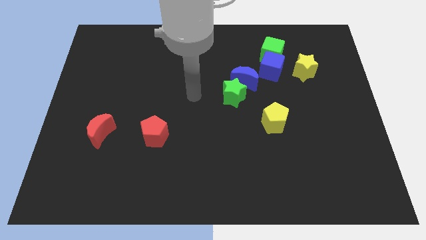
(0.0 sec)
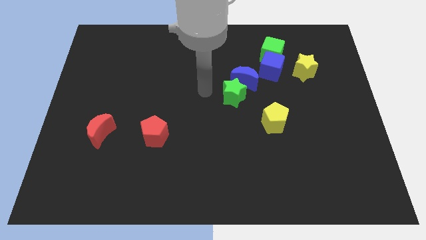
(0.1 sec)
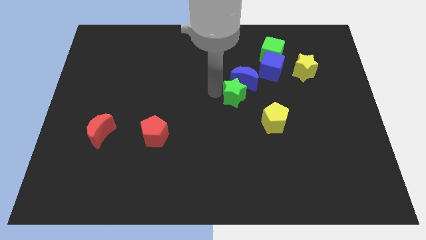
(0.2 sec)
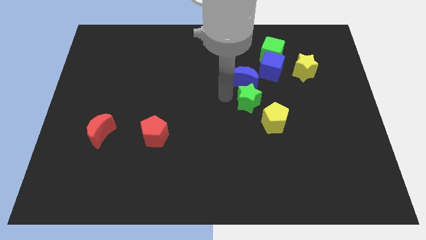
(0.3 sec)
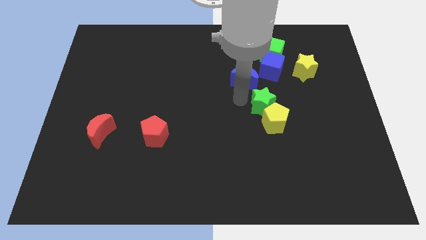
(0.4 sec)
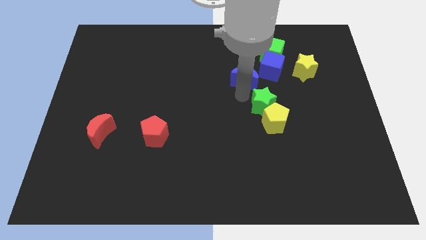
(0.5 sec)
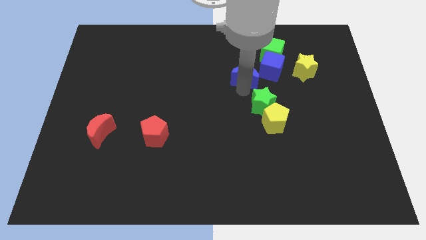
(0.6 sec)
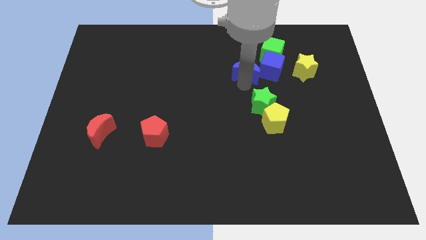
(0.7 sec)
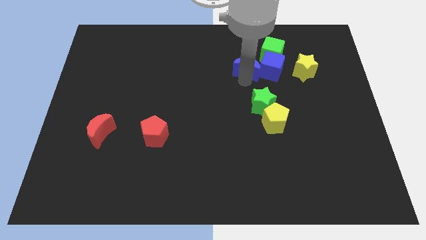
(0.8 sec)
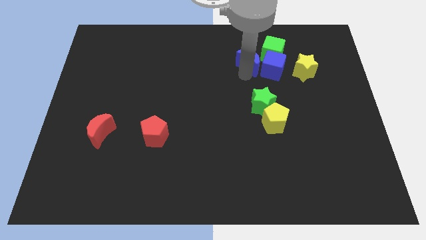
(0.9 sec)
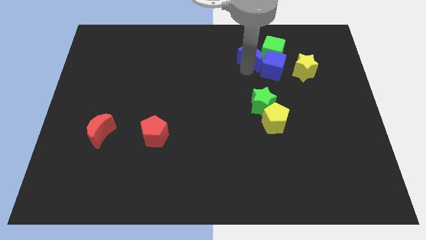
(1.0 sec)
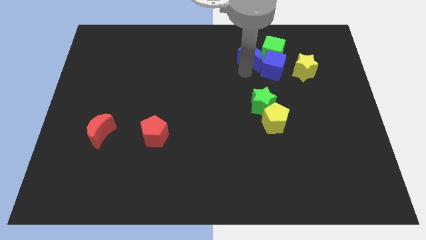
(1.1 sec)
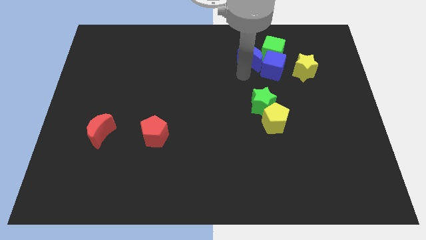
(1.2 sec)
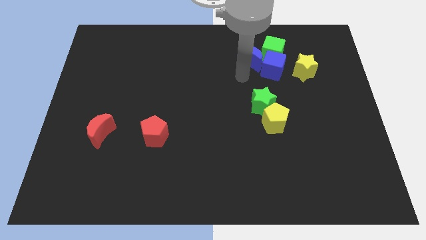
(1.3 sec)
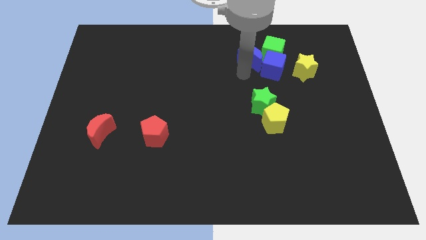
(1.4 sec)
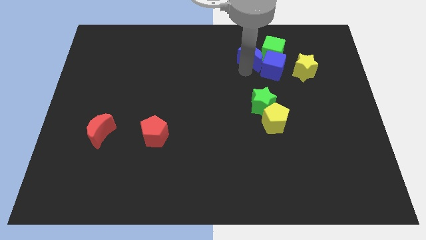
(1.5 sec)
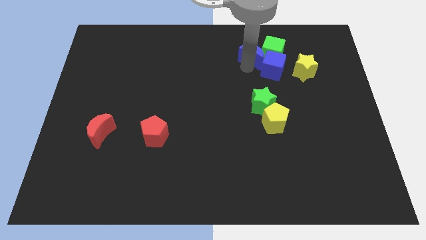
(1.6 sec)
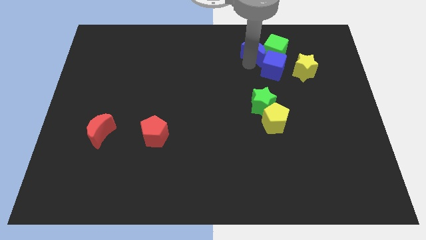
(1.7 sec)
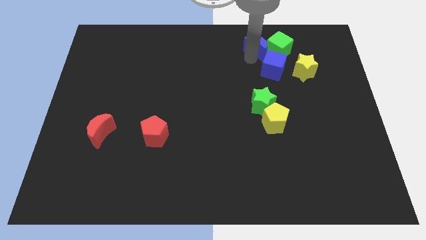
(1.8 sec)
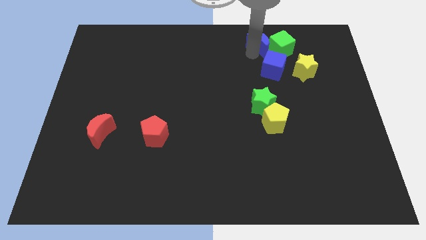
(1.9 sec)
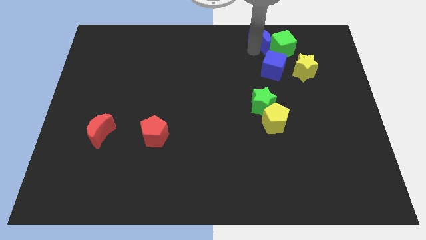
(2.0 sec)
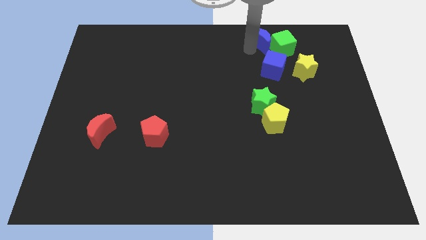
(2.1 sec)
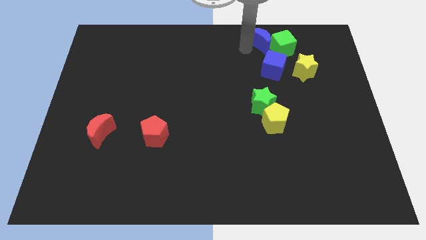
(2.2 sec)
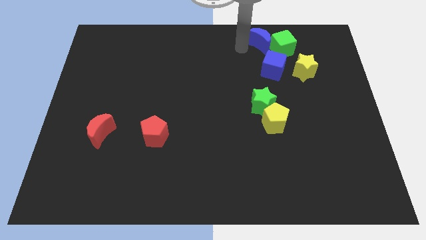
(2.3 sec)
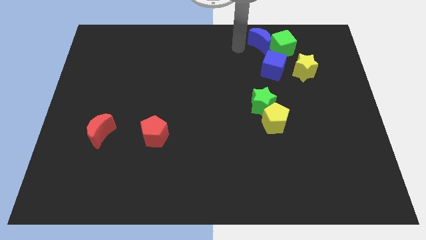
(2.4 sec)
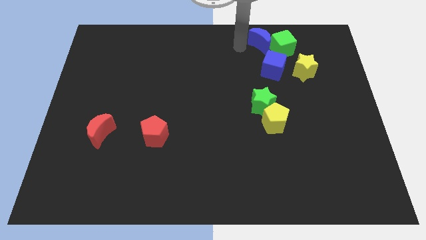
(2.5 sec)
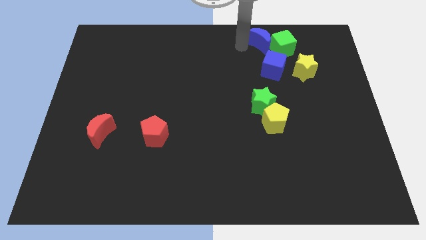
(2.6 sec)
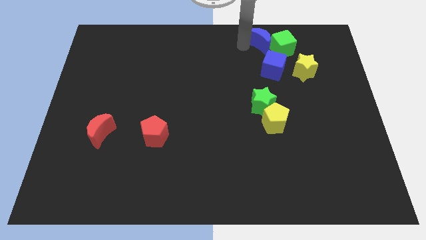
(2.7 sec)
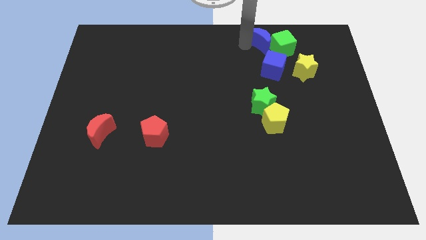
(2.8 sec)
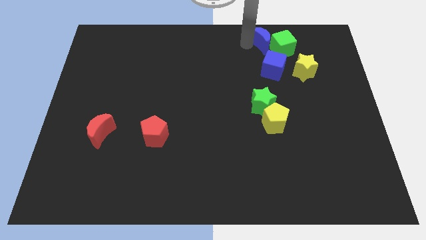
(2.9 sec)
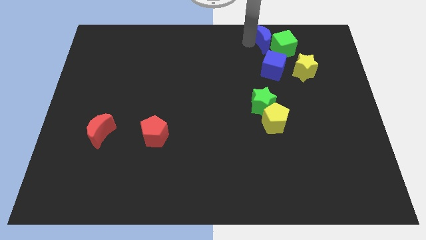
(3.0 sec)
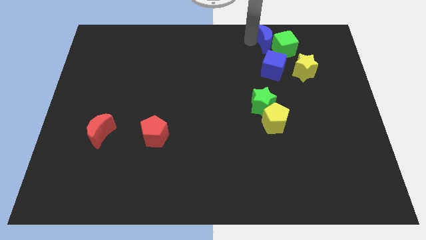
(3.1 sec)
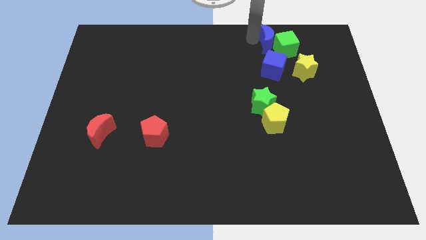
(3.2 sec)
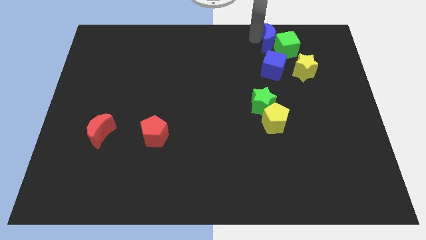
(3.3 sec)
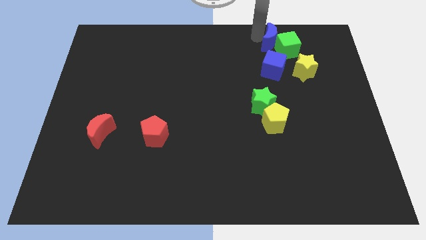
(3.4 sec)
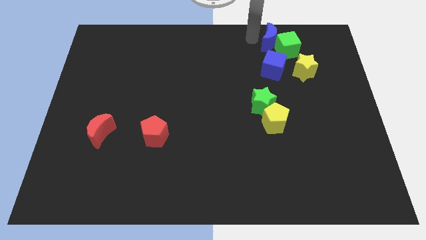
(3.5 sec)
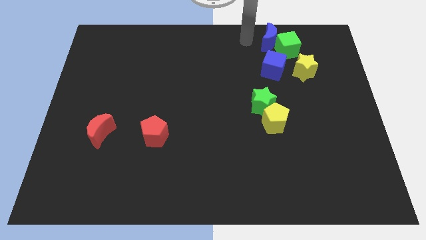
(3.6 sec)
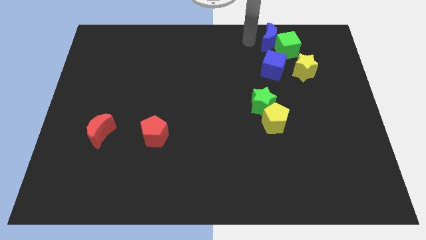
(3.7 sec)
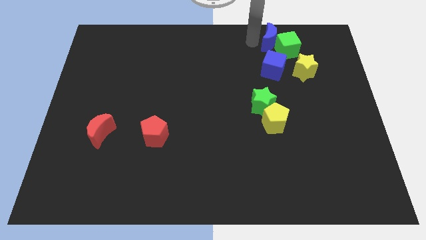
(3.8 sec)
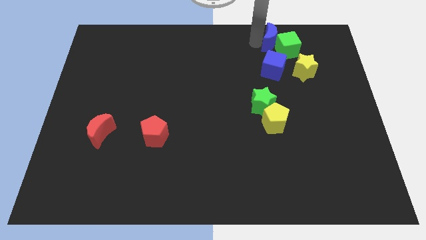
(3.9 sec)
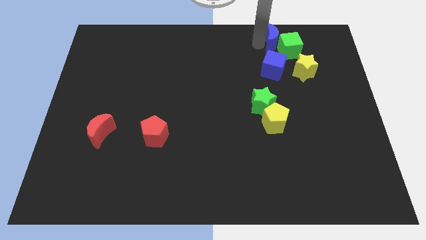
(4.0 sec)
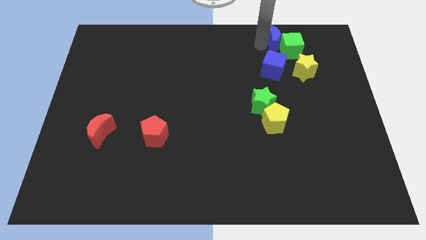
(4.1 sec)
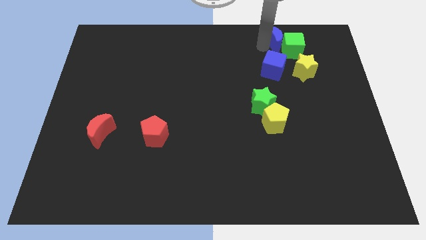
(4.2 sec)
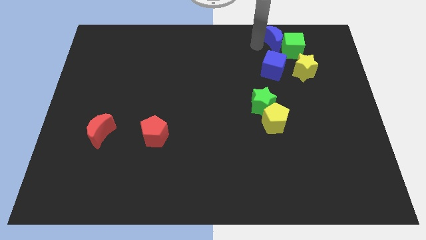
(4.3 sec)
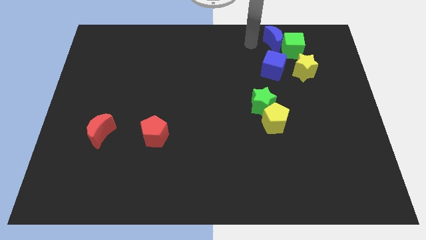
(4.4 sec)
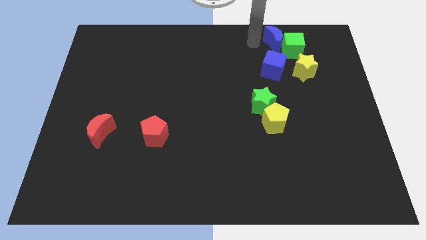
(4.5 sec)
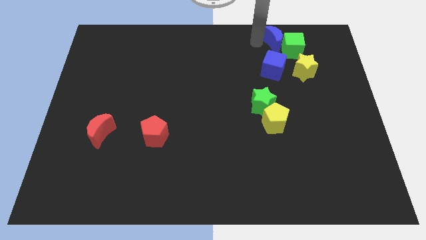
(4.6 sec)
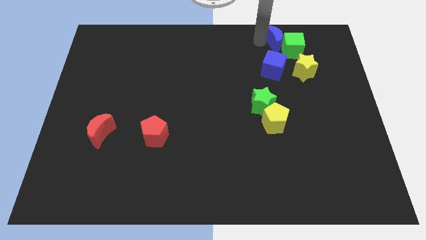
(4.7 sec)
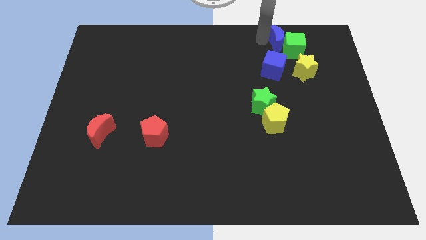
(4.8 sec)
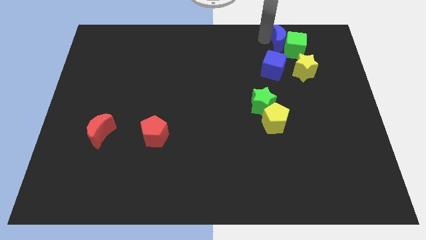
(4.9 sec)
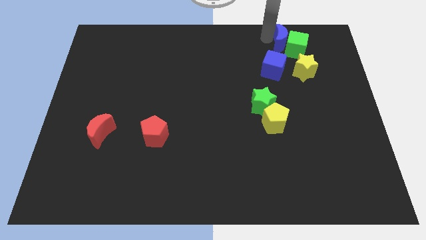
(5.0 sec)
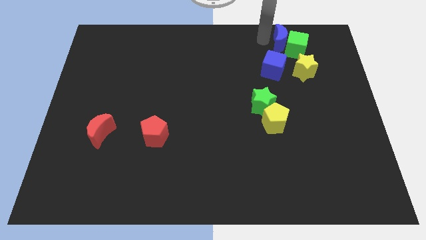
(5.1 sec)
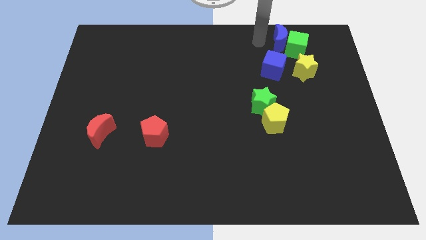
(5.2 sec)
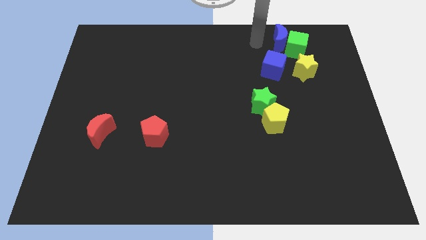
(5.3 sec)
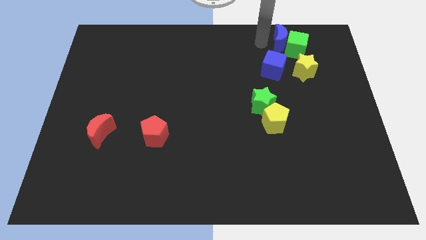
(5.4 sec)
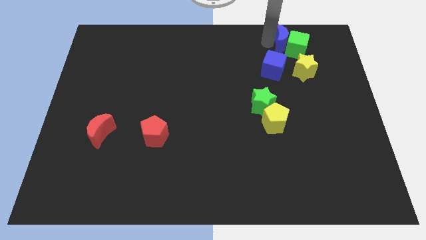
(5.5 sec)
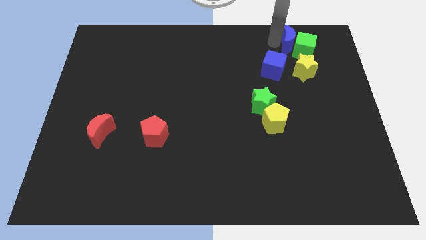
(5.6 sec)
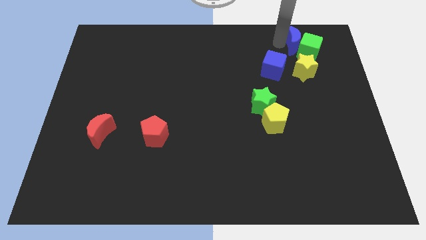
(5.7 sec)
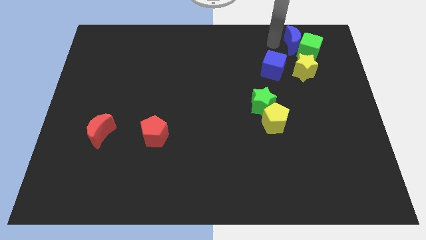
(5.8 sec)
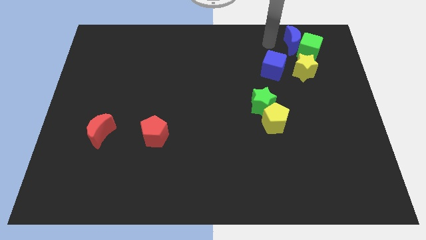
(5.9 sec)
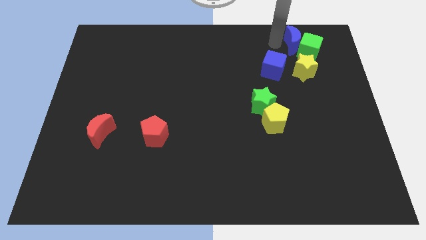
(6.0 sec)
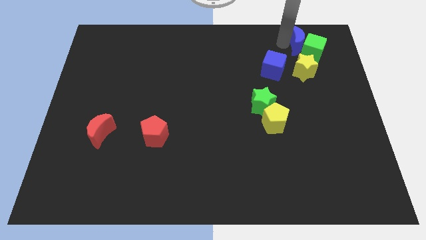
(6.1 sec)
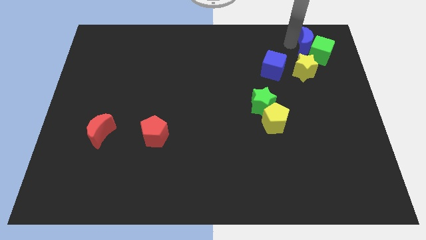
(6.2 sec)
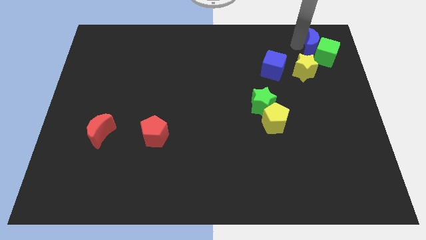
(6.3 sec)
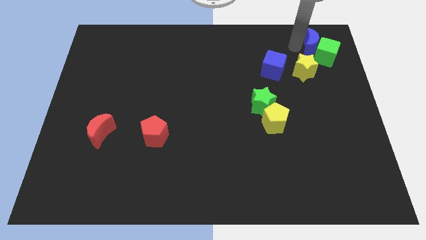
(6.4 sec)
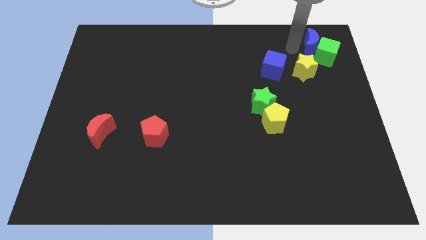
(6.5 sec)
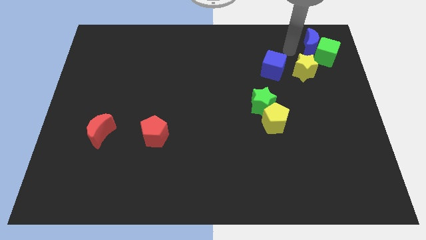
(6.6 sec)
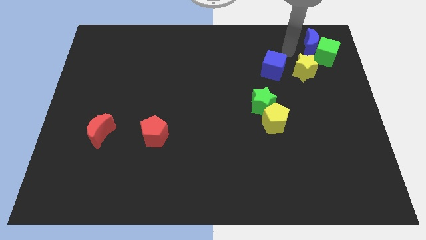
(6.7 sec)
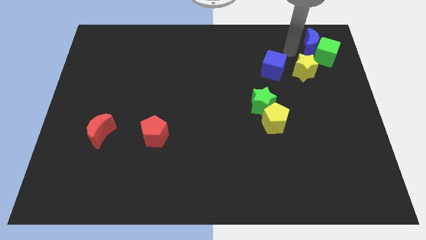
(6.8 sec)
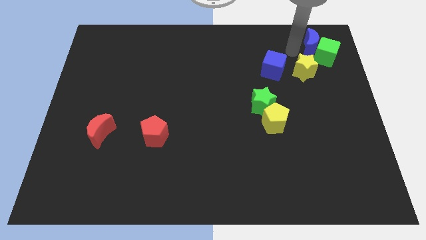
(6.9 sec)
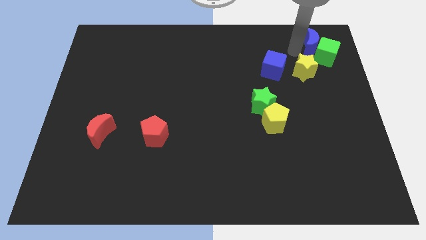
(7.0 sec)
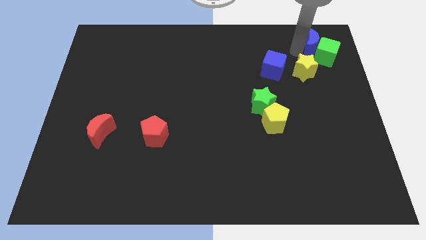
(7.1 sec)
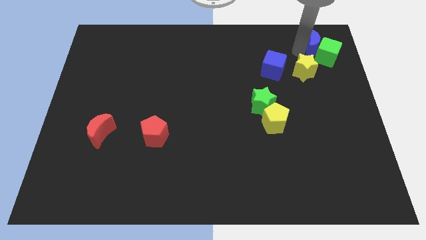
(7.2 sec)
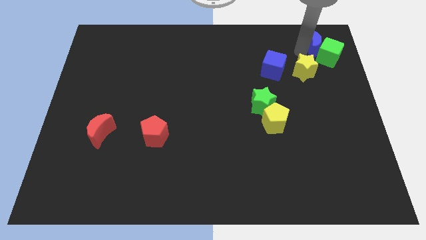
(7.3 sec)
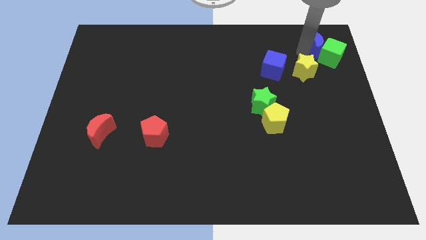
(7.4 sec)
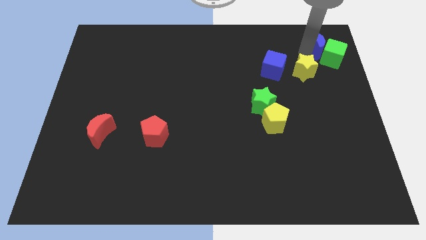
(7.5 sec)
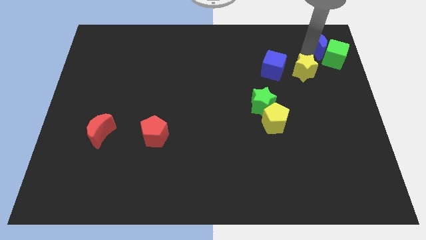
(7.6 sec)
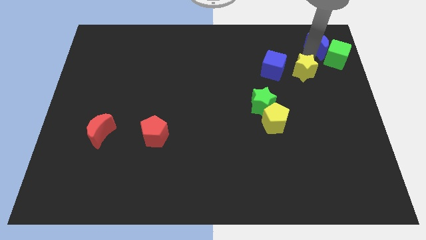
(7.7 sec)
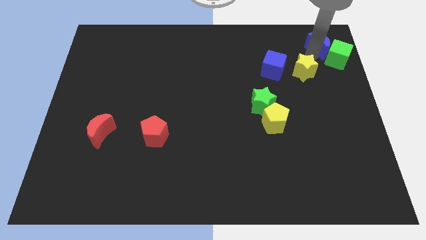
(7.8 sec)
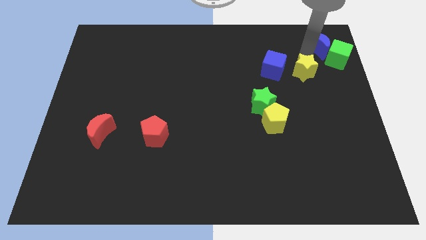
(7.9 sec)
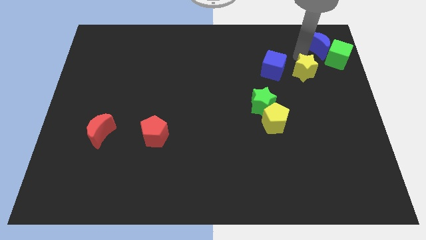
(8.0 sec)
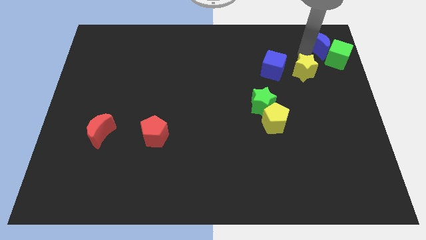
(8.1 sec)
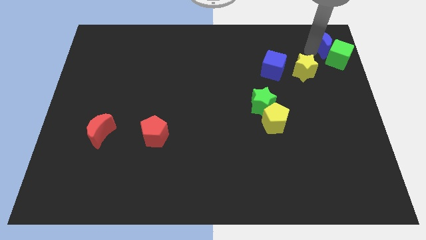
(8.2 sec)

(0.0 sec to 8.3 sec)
put the blue moon to the upper right corner
